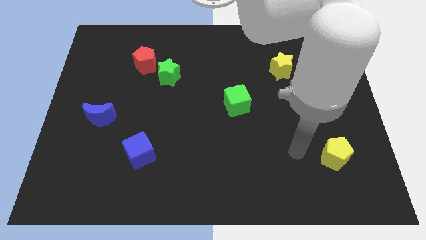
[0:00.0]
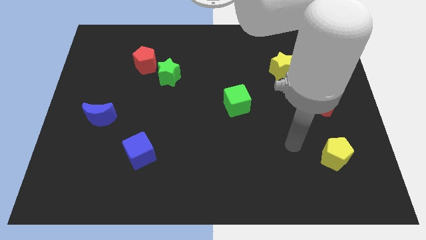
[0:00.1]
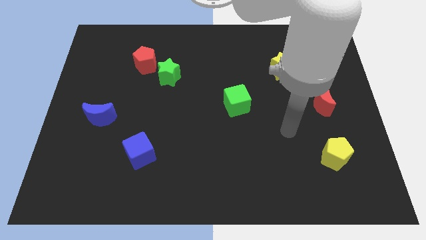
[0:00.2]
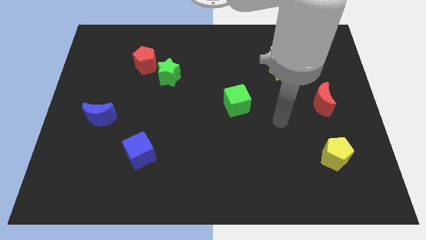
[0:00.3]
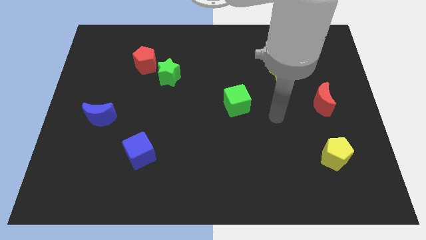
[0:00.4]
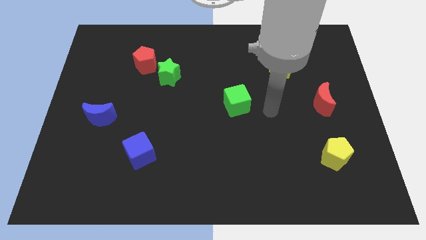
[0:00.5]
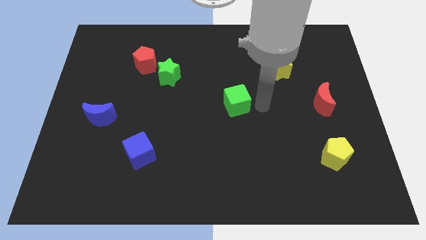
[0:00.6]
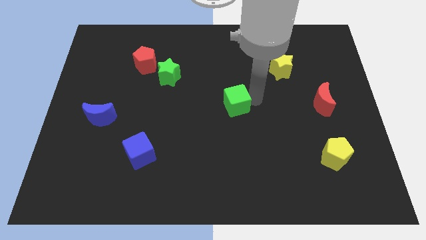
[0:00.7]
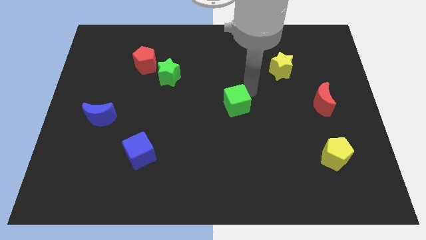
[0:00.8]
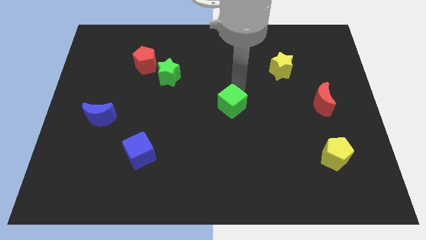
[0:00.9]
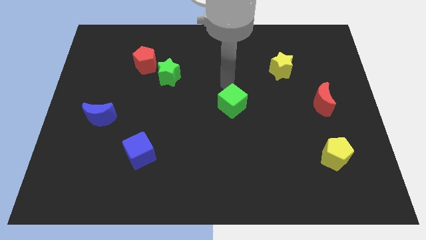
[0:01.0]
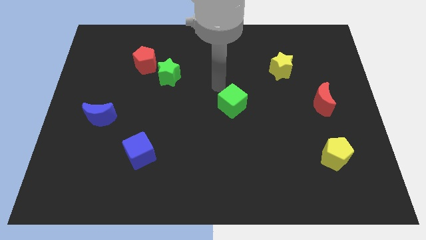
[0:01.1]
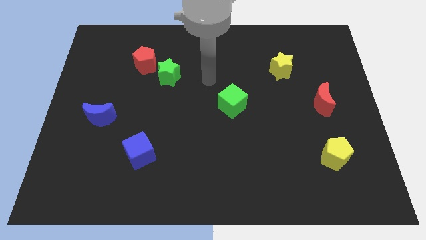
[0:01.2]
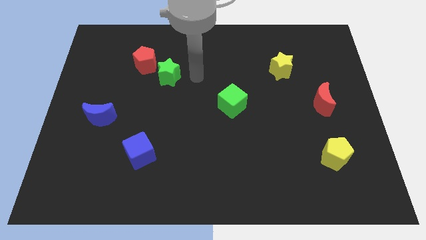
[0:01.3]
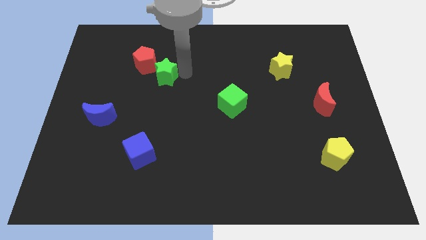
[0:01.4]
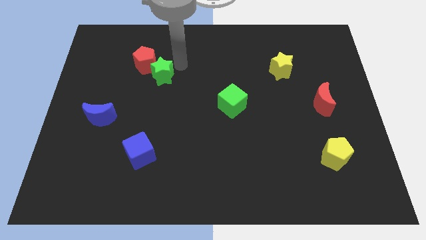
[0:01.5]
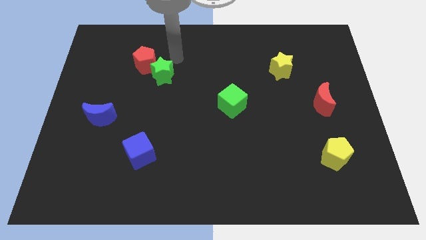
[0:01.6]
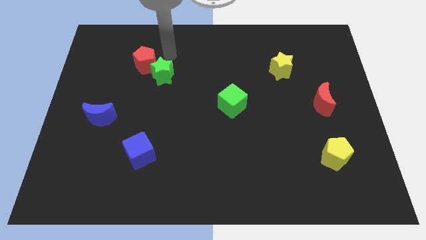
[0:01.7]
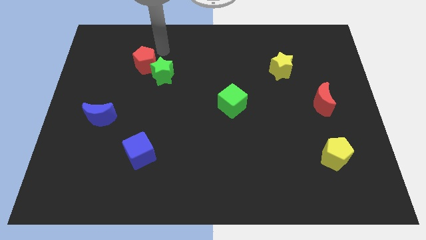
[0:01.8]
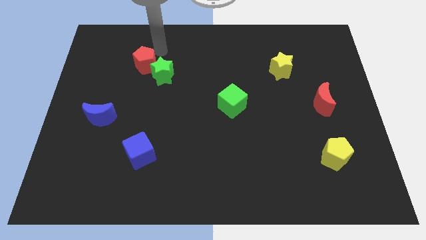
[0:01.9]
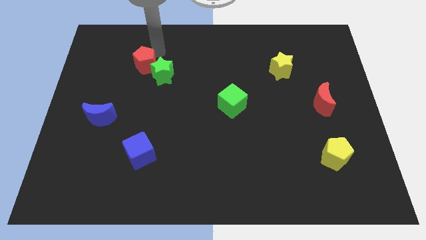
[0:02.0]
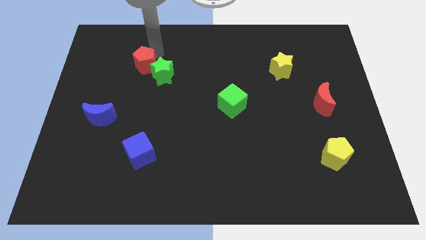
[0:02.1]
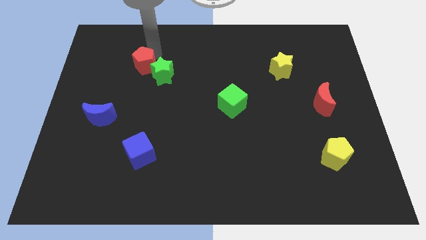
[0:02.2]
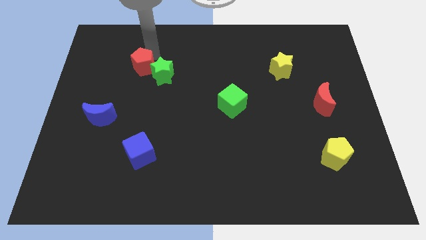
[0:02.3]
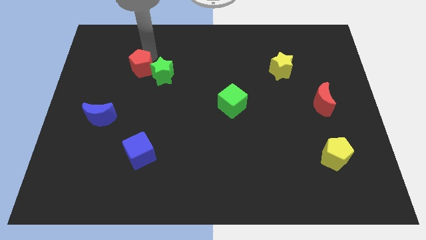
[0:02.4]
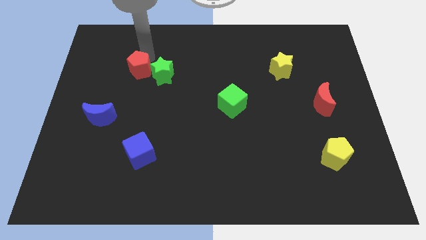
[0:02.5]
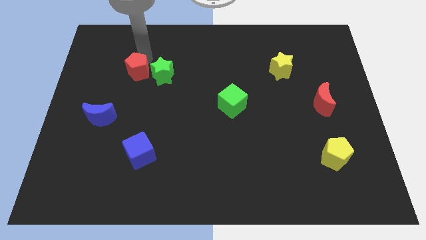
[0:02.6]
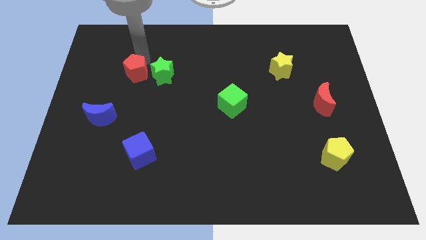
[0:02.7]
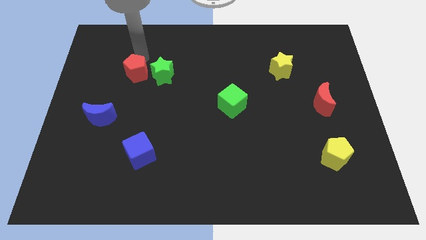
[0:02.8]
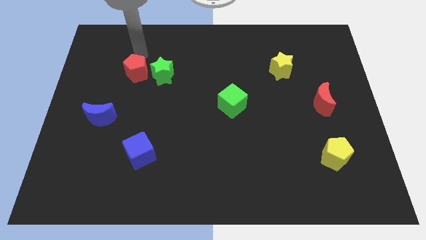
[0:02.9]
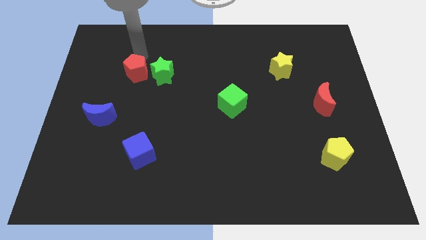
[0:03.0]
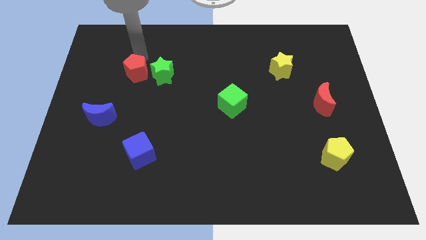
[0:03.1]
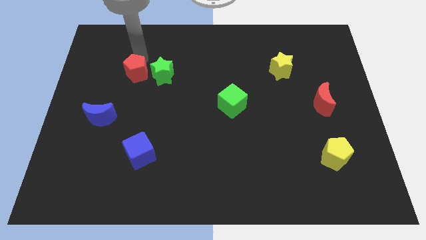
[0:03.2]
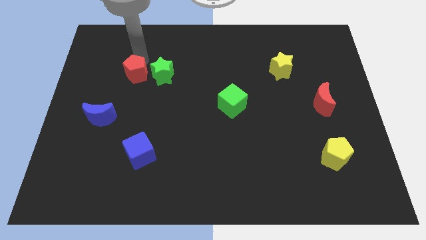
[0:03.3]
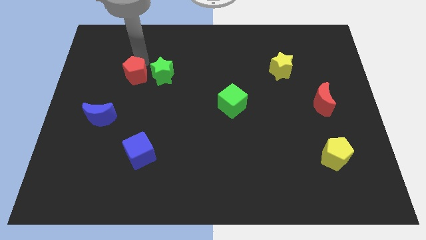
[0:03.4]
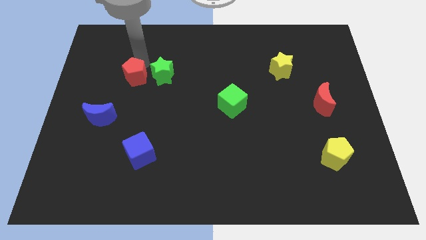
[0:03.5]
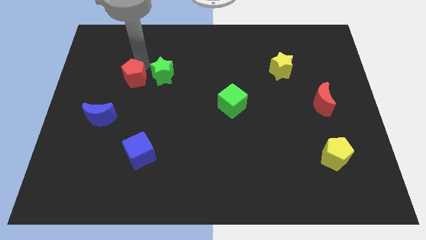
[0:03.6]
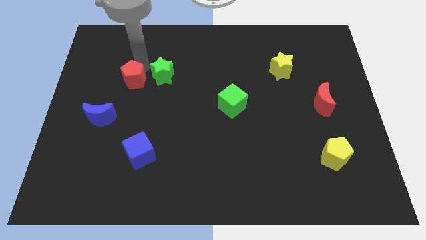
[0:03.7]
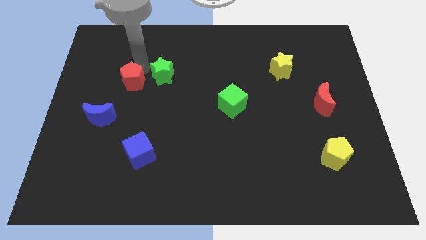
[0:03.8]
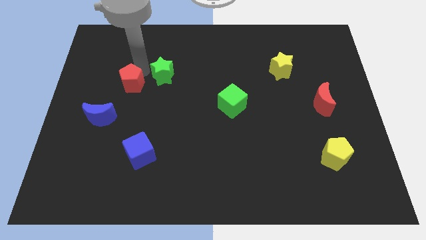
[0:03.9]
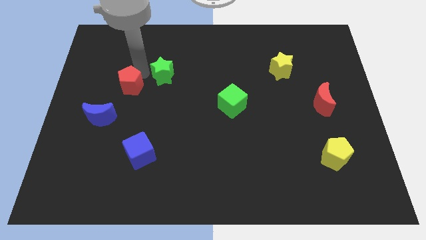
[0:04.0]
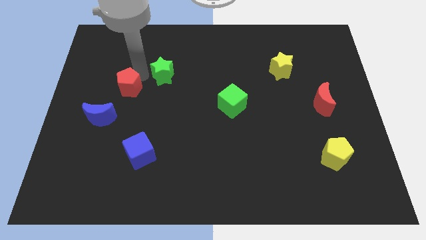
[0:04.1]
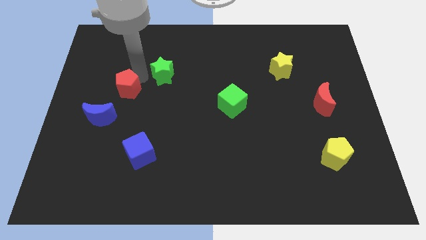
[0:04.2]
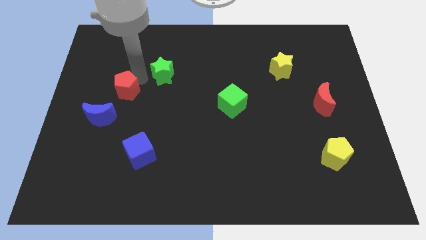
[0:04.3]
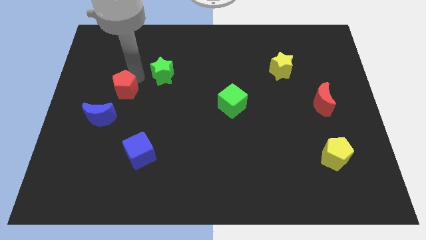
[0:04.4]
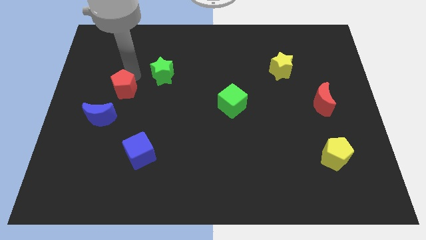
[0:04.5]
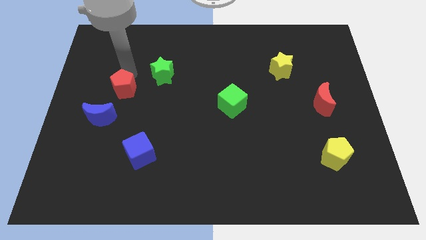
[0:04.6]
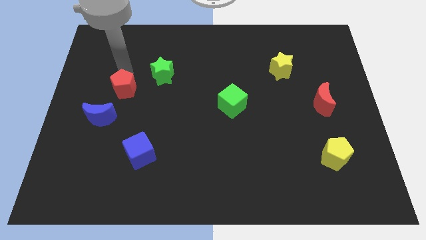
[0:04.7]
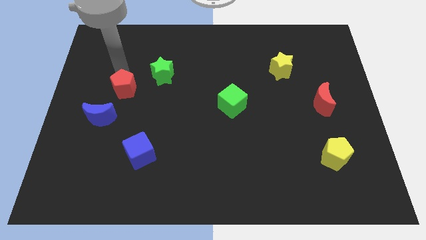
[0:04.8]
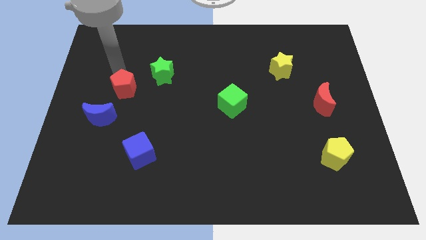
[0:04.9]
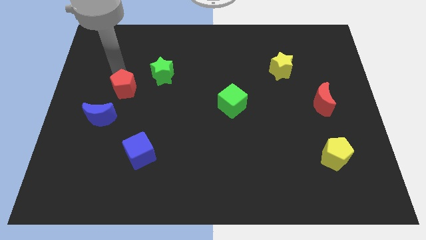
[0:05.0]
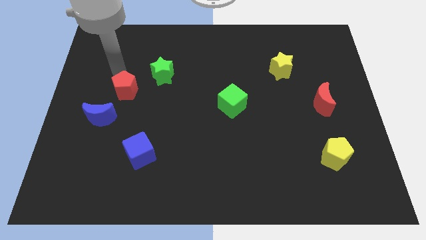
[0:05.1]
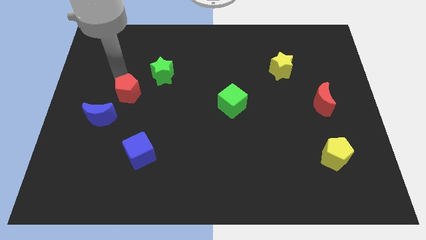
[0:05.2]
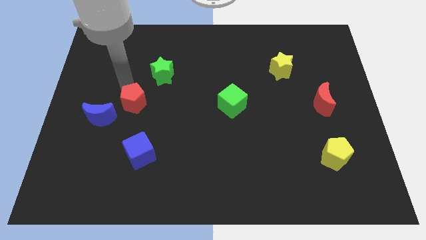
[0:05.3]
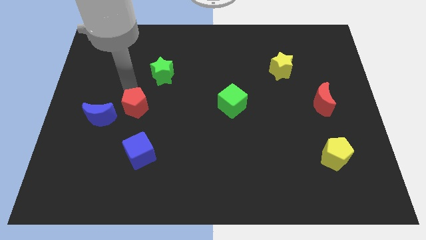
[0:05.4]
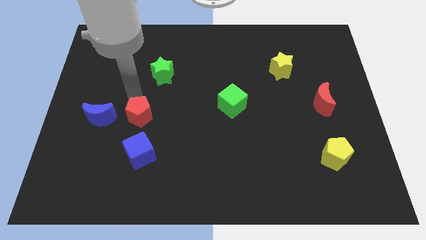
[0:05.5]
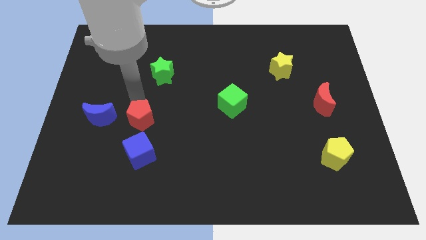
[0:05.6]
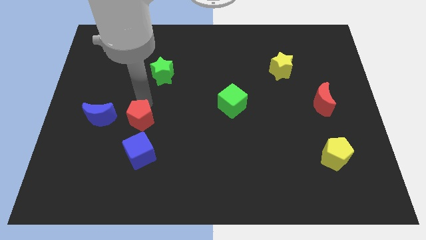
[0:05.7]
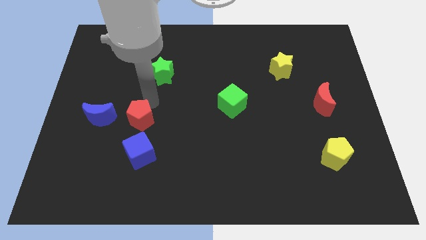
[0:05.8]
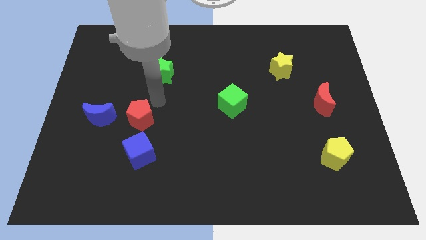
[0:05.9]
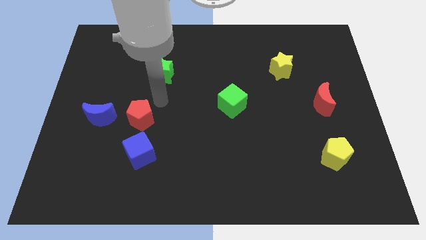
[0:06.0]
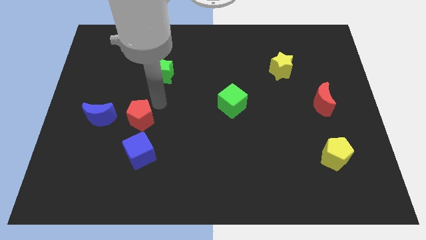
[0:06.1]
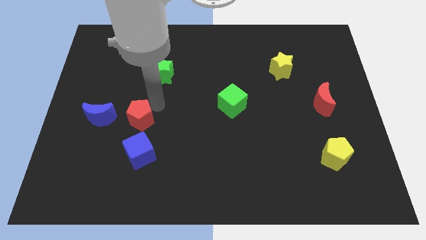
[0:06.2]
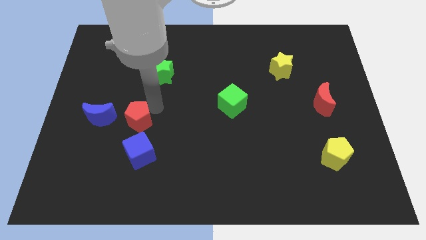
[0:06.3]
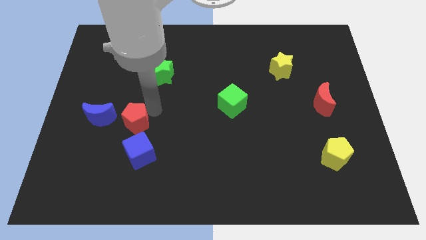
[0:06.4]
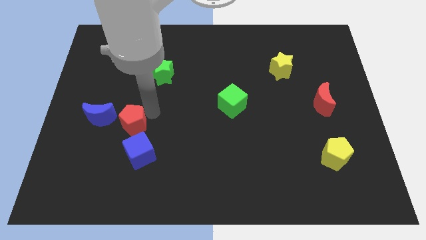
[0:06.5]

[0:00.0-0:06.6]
move the red pentagon to the bottom right of the blue moon
